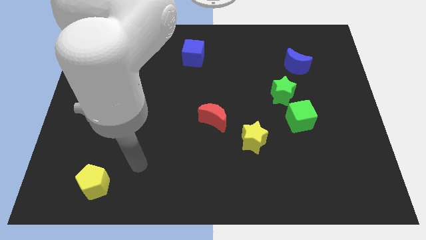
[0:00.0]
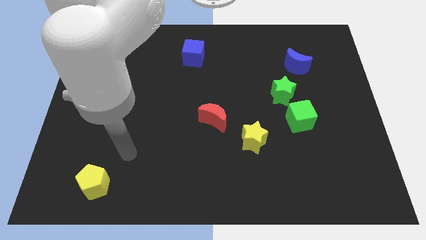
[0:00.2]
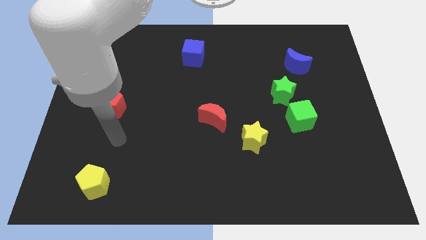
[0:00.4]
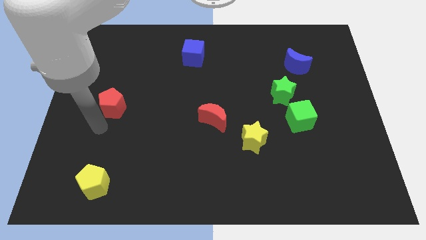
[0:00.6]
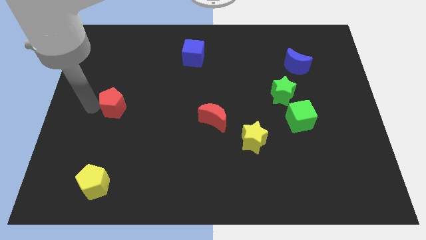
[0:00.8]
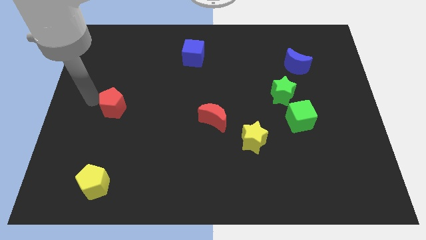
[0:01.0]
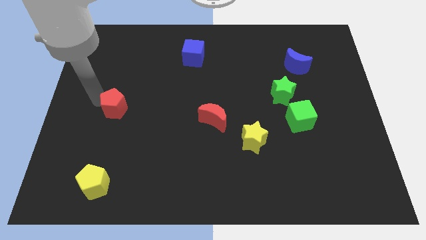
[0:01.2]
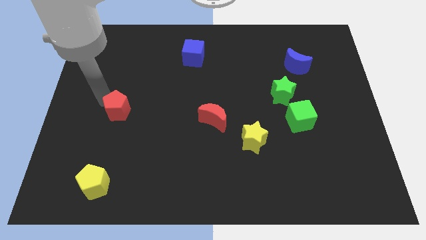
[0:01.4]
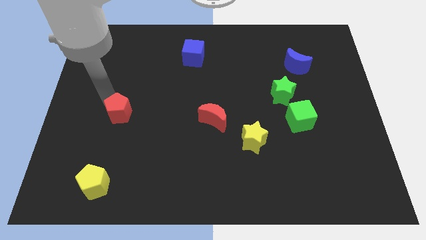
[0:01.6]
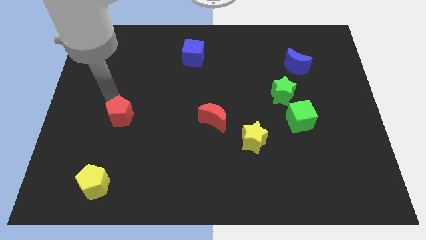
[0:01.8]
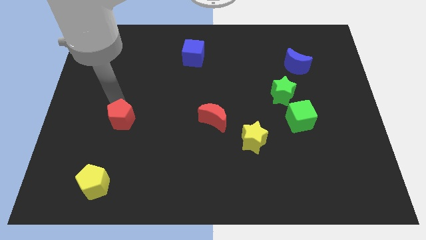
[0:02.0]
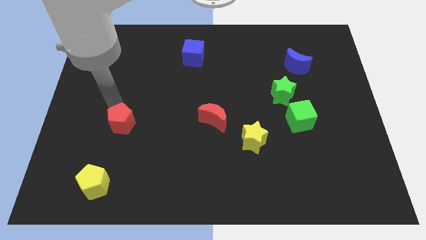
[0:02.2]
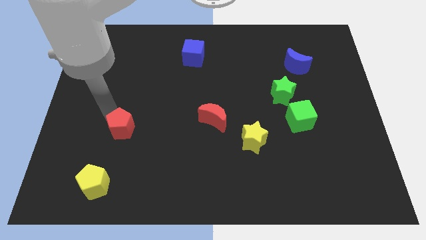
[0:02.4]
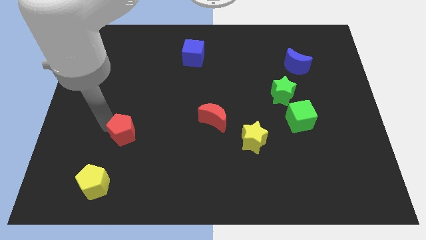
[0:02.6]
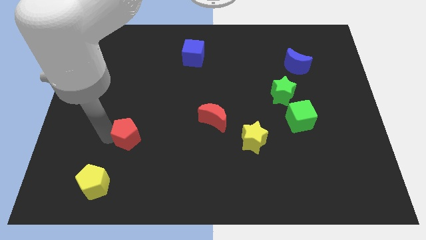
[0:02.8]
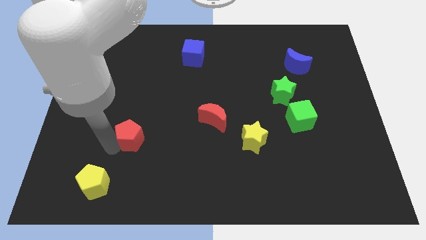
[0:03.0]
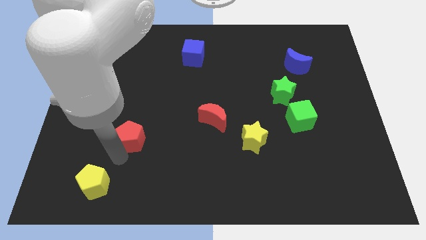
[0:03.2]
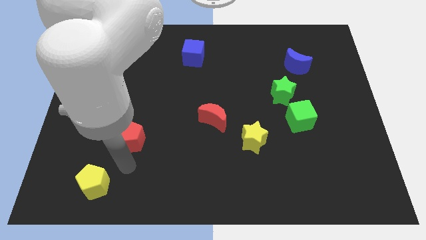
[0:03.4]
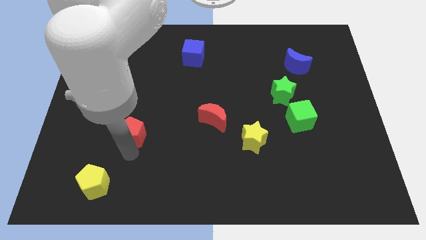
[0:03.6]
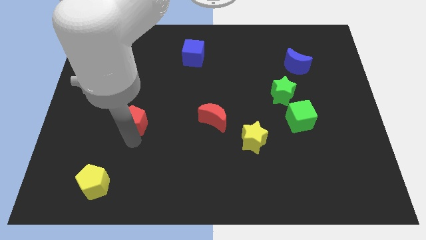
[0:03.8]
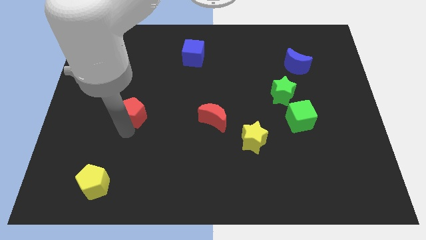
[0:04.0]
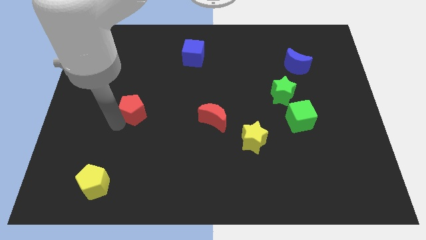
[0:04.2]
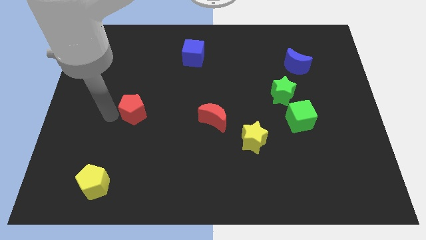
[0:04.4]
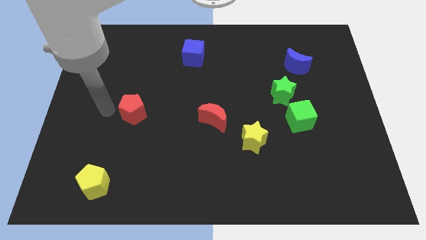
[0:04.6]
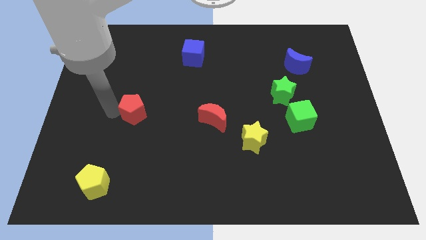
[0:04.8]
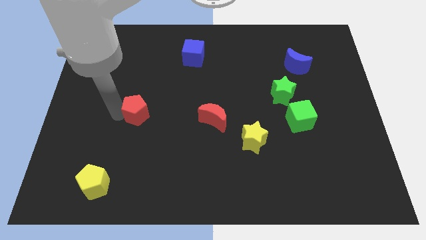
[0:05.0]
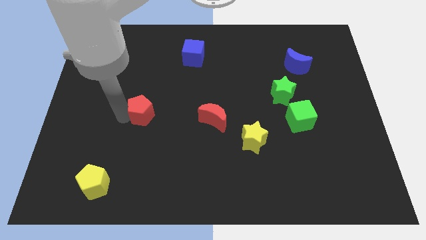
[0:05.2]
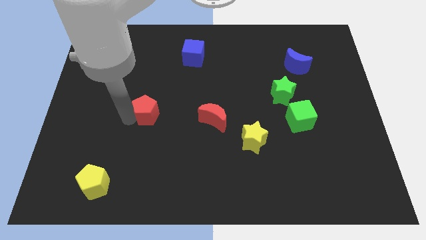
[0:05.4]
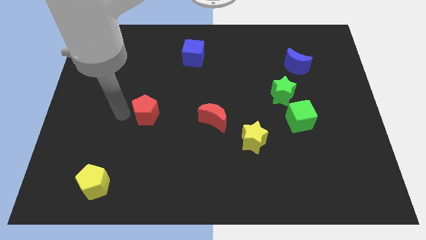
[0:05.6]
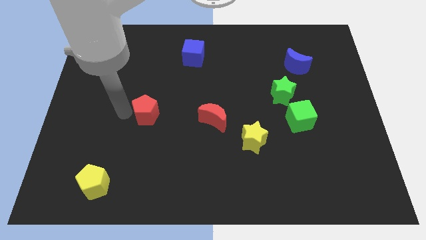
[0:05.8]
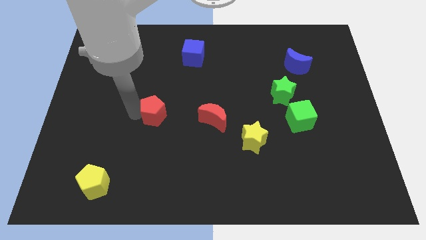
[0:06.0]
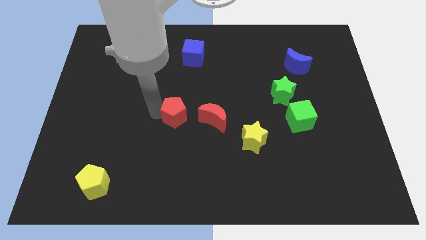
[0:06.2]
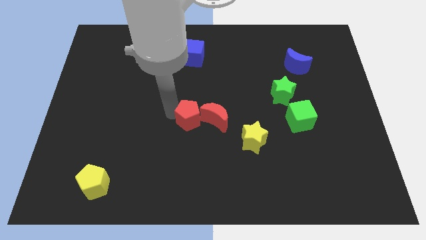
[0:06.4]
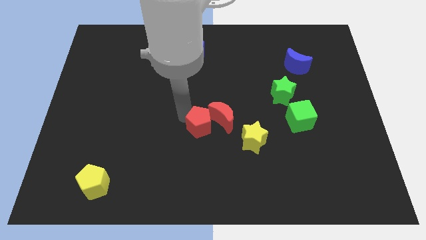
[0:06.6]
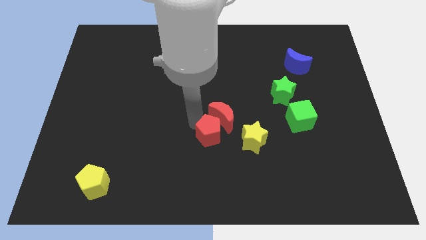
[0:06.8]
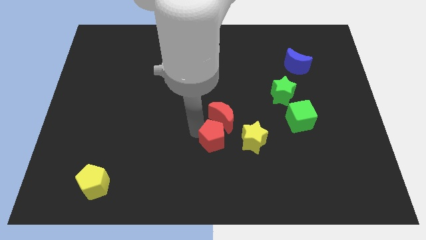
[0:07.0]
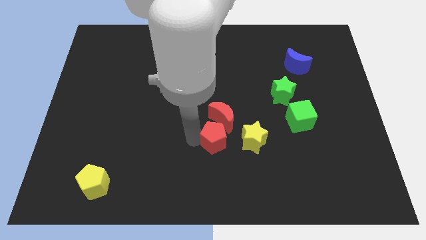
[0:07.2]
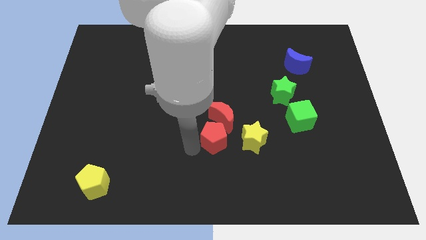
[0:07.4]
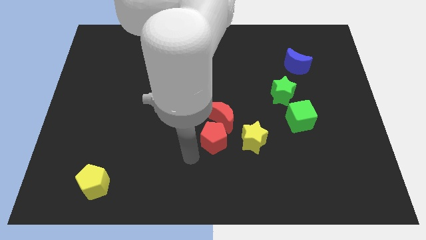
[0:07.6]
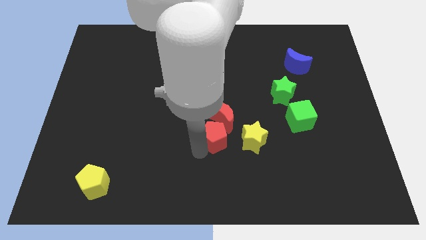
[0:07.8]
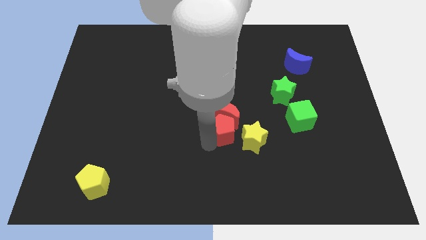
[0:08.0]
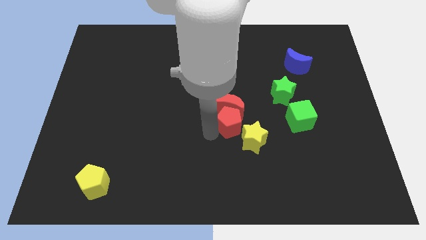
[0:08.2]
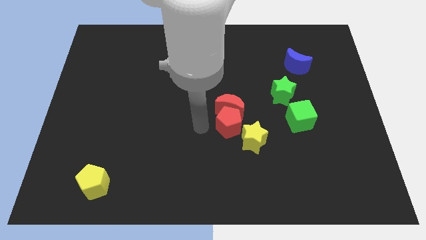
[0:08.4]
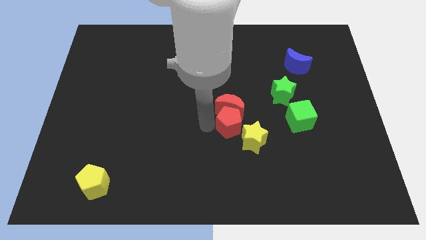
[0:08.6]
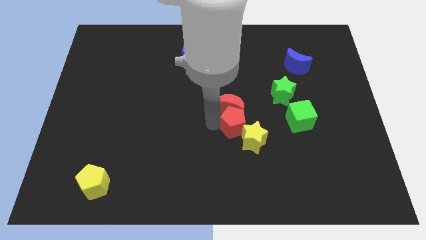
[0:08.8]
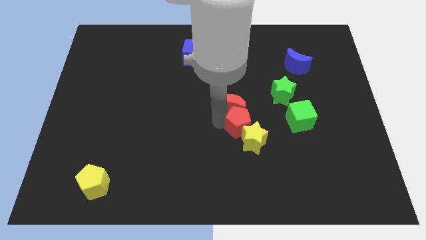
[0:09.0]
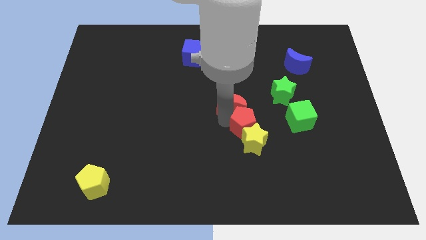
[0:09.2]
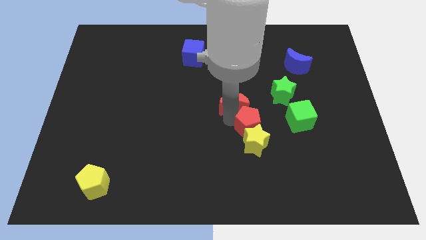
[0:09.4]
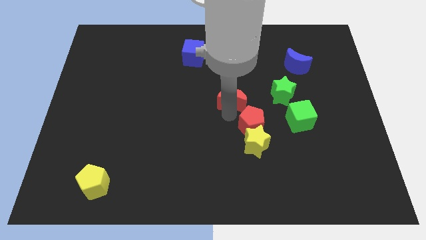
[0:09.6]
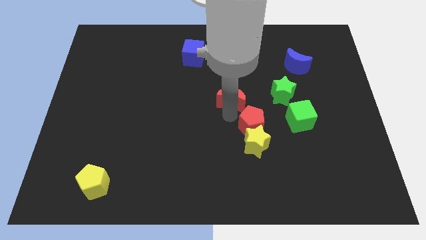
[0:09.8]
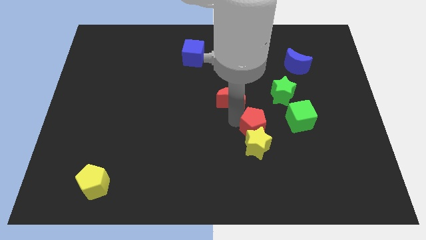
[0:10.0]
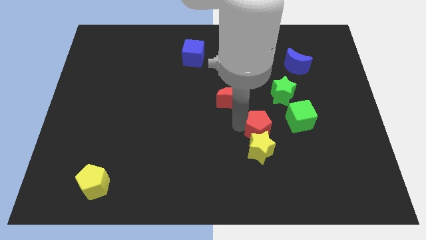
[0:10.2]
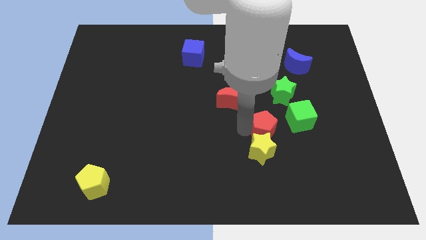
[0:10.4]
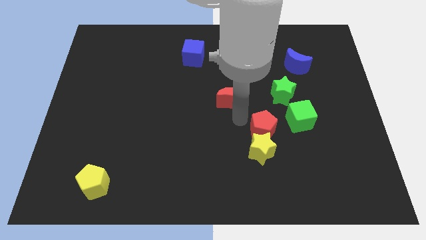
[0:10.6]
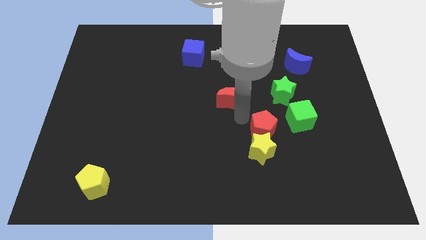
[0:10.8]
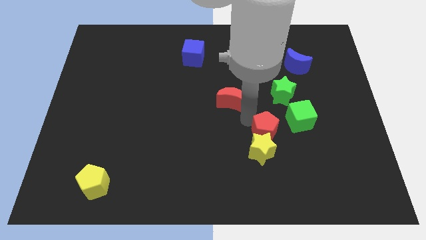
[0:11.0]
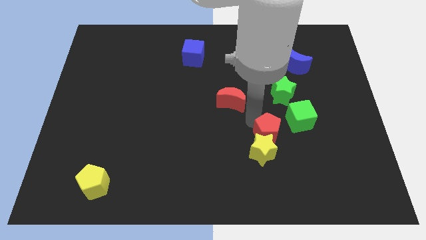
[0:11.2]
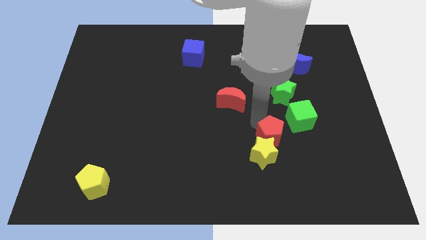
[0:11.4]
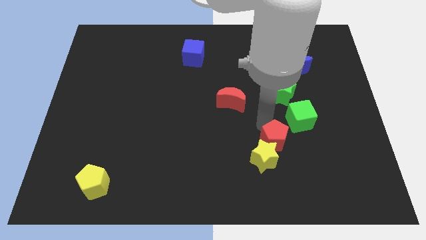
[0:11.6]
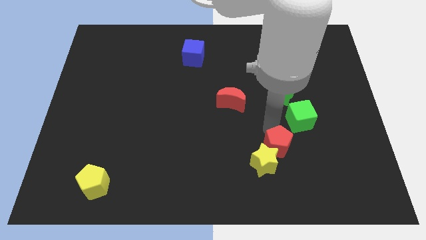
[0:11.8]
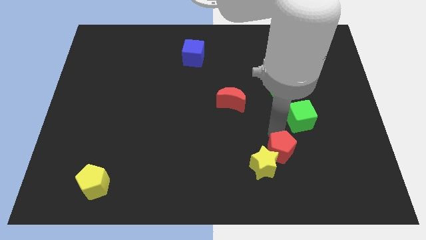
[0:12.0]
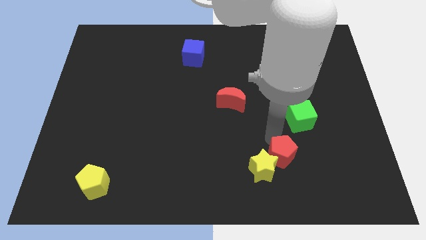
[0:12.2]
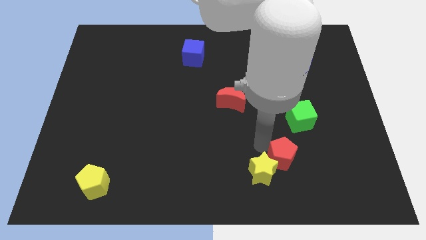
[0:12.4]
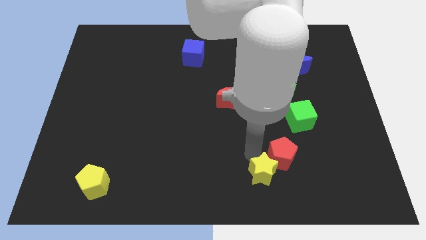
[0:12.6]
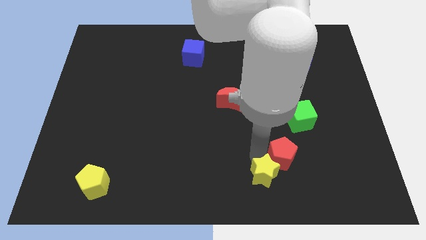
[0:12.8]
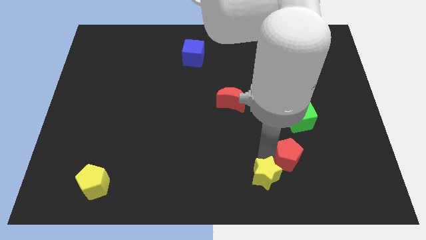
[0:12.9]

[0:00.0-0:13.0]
slide the red pentagon below the green cube
